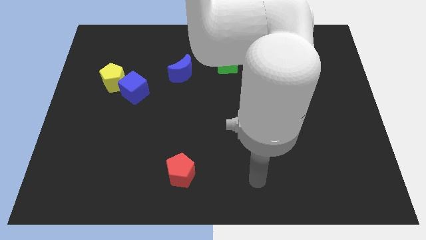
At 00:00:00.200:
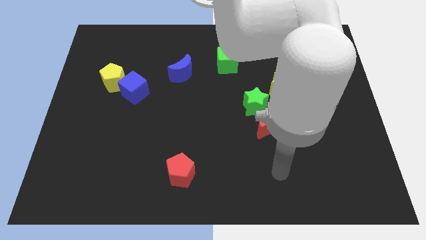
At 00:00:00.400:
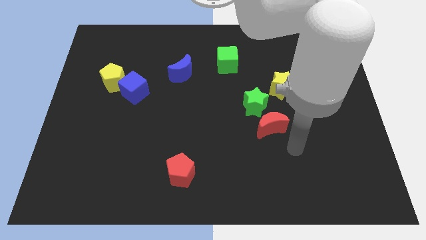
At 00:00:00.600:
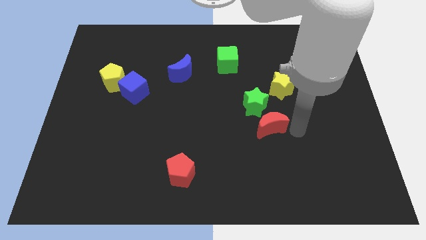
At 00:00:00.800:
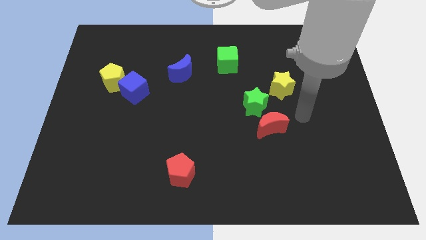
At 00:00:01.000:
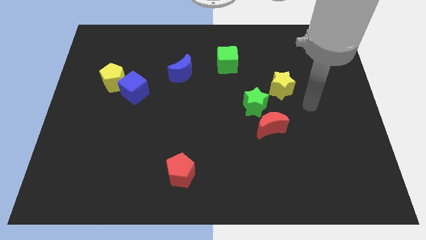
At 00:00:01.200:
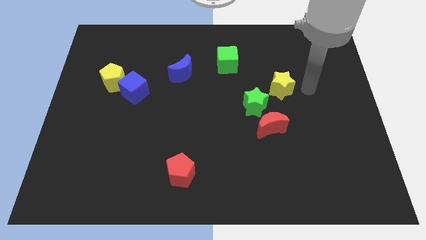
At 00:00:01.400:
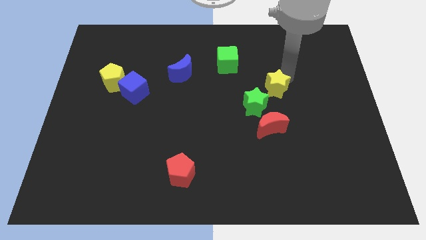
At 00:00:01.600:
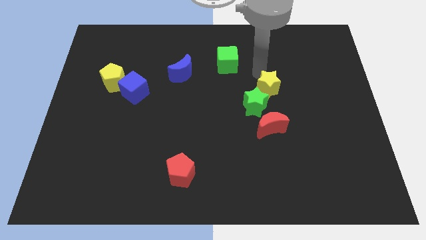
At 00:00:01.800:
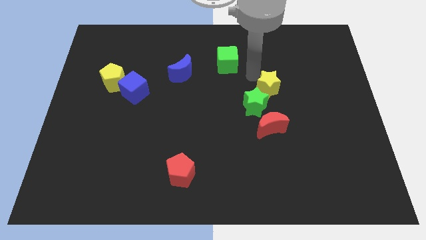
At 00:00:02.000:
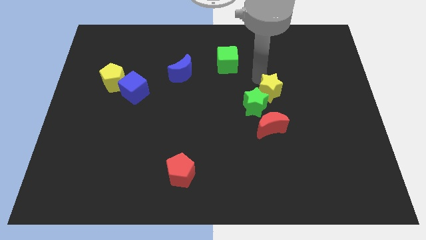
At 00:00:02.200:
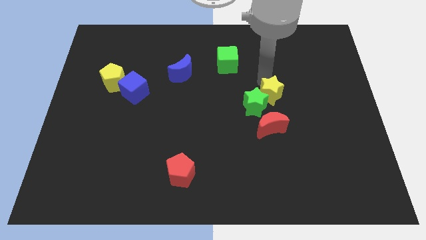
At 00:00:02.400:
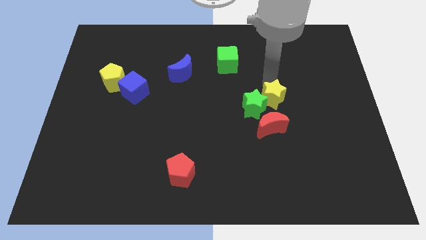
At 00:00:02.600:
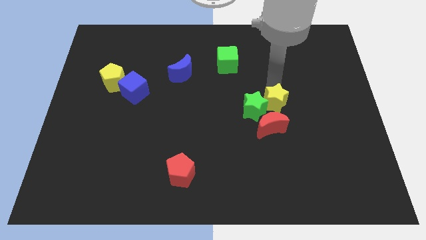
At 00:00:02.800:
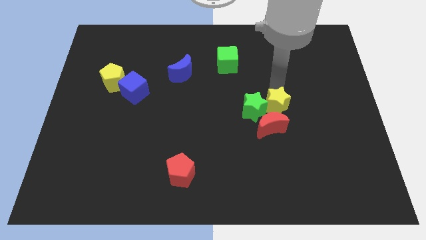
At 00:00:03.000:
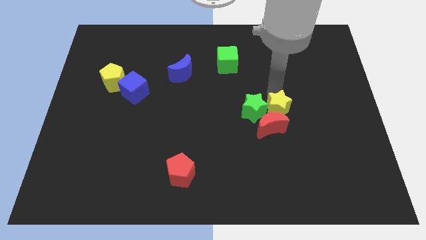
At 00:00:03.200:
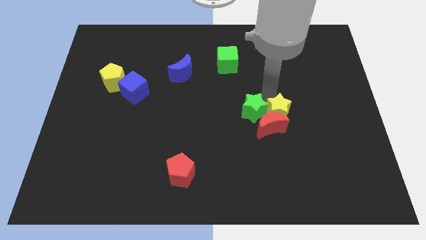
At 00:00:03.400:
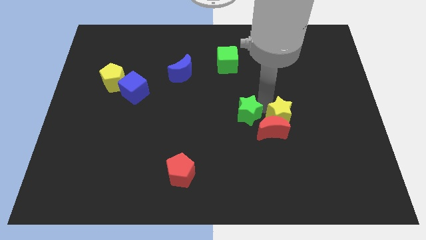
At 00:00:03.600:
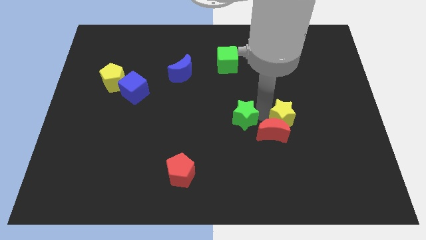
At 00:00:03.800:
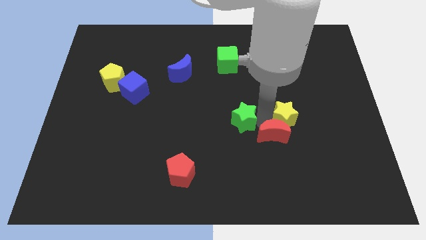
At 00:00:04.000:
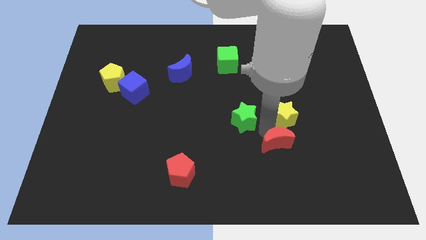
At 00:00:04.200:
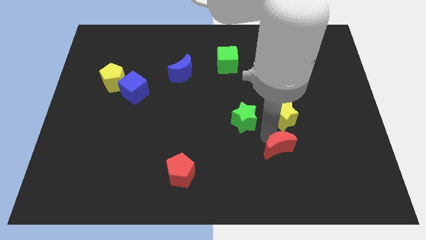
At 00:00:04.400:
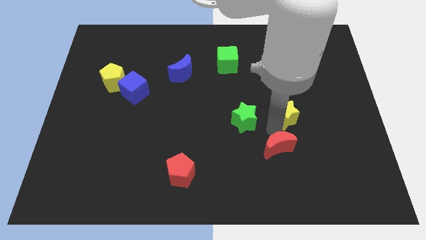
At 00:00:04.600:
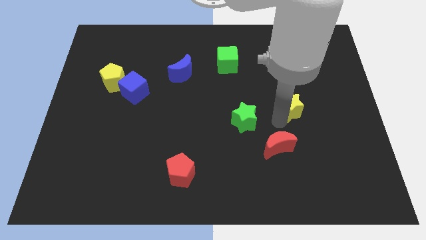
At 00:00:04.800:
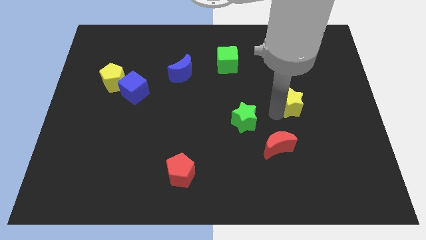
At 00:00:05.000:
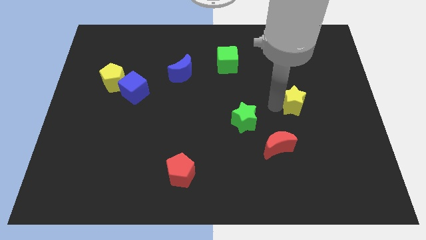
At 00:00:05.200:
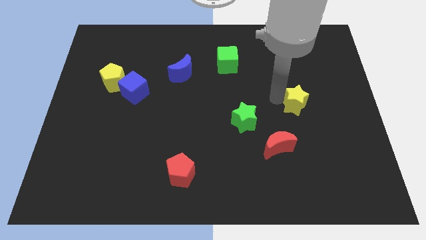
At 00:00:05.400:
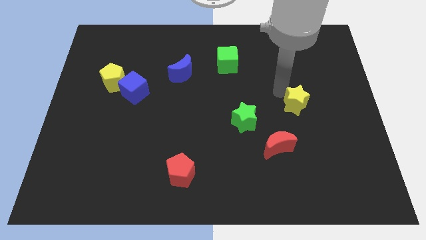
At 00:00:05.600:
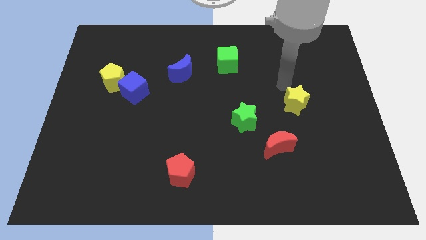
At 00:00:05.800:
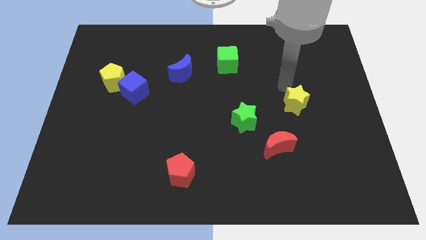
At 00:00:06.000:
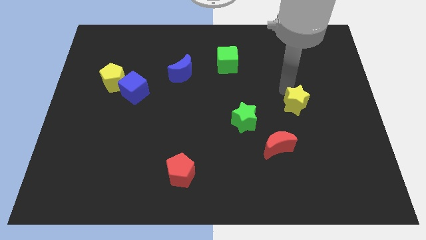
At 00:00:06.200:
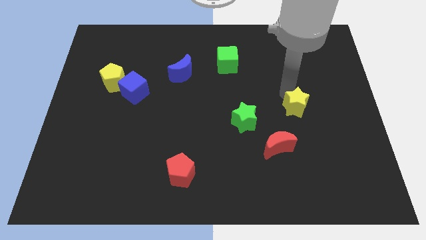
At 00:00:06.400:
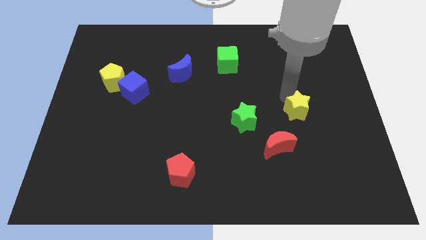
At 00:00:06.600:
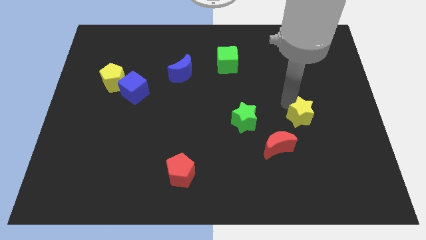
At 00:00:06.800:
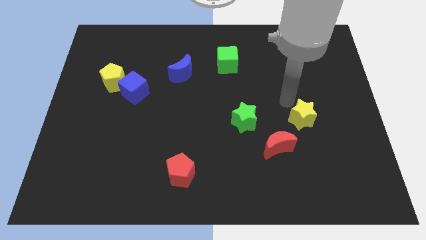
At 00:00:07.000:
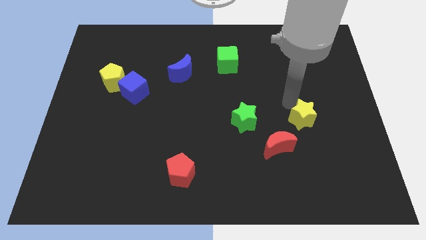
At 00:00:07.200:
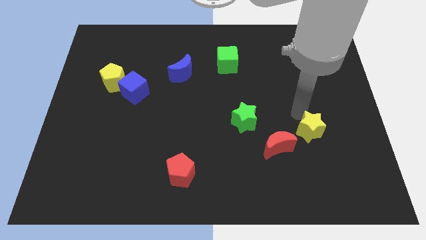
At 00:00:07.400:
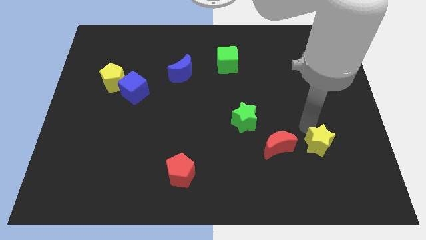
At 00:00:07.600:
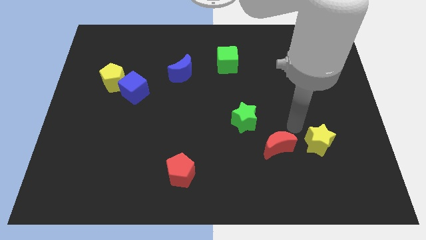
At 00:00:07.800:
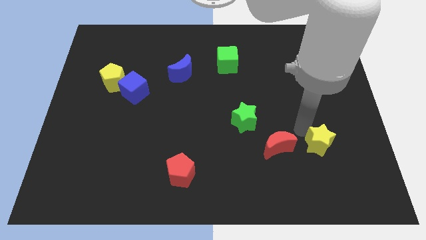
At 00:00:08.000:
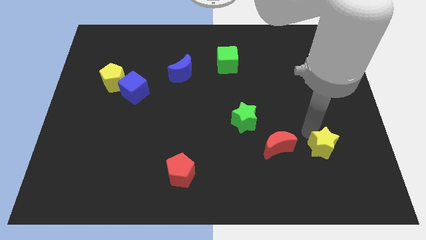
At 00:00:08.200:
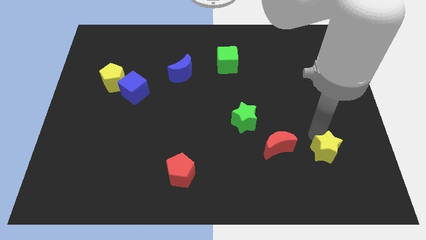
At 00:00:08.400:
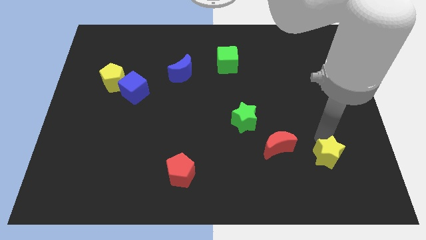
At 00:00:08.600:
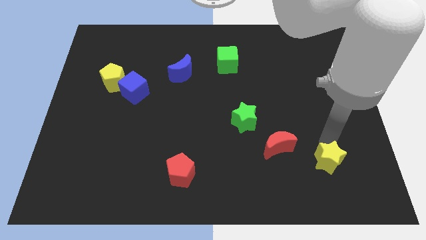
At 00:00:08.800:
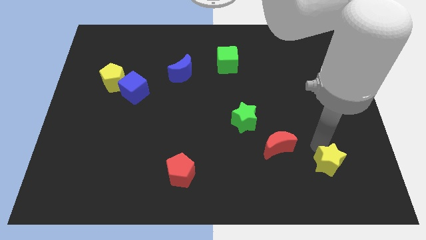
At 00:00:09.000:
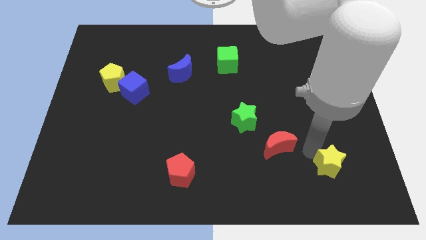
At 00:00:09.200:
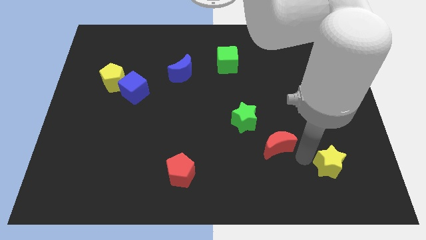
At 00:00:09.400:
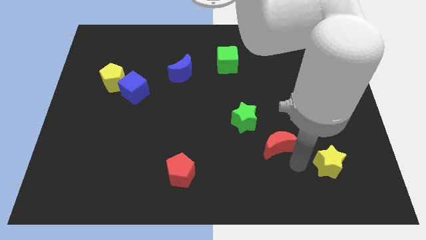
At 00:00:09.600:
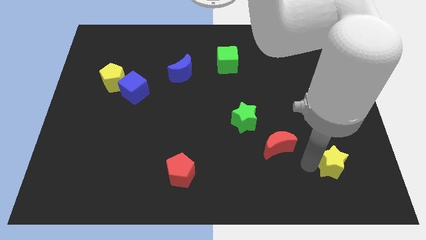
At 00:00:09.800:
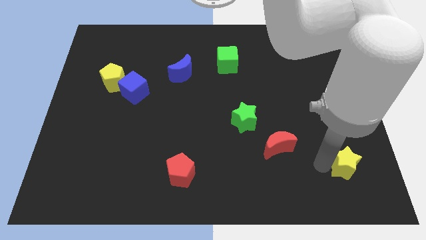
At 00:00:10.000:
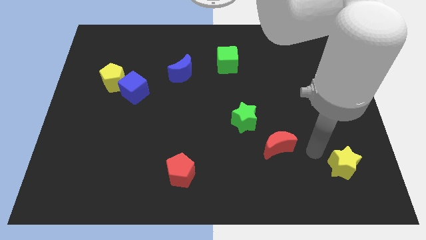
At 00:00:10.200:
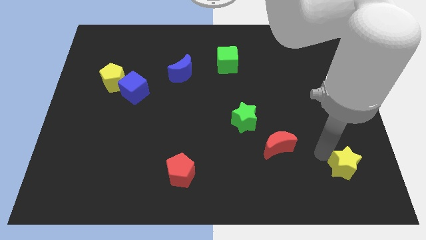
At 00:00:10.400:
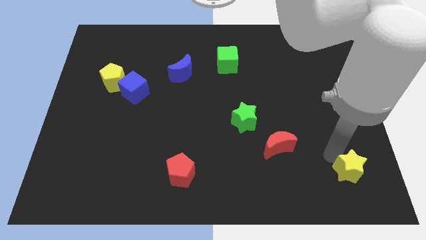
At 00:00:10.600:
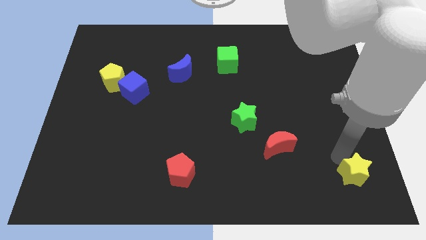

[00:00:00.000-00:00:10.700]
push the yellow star to the bottom right corner

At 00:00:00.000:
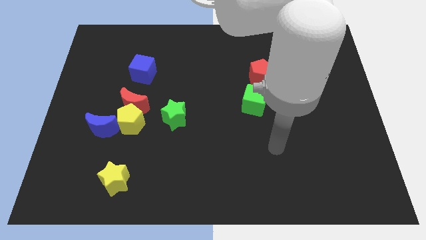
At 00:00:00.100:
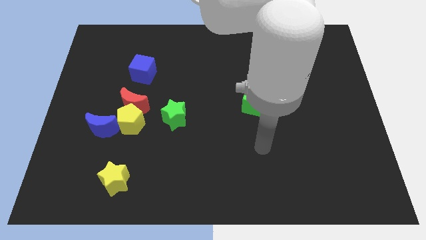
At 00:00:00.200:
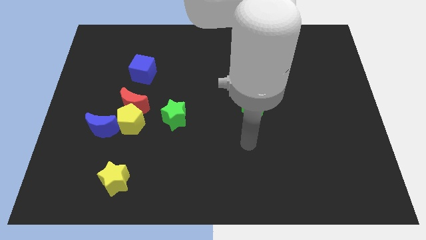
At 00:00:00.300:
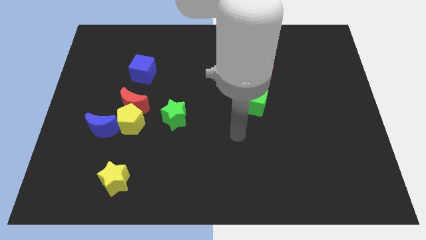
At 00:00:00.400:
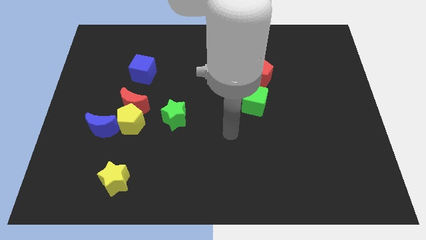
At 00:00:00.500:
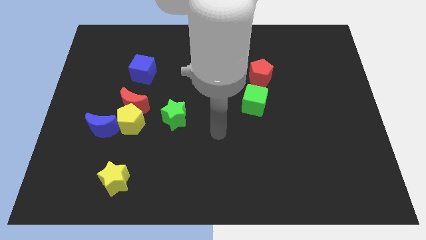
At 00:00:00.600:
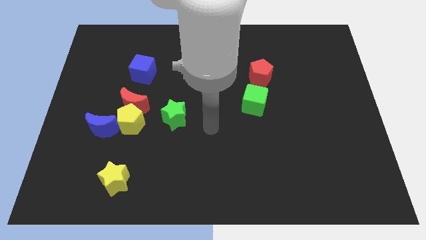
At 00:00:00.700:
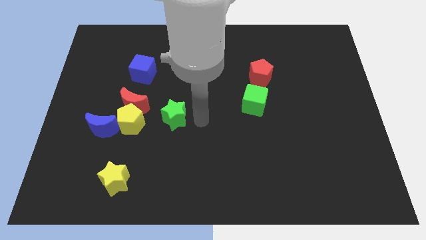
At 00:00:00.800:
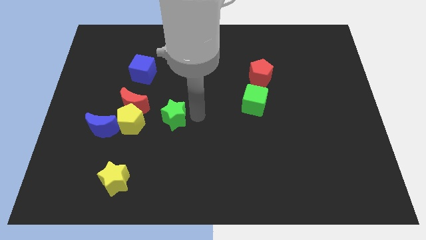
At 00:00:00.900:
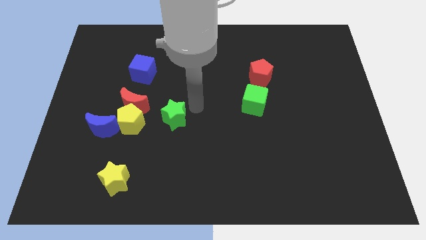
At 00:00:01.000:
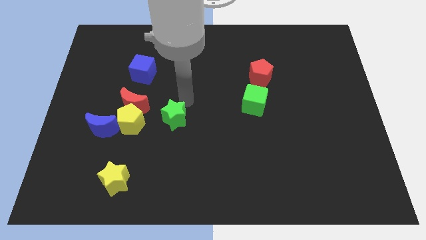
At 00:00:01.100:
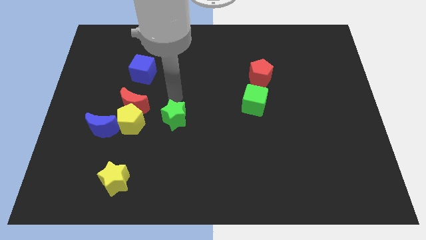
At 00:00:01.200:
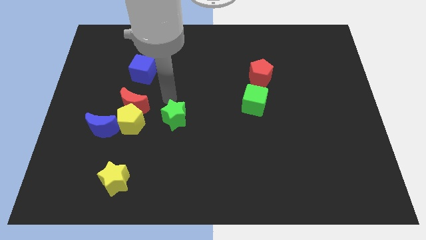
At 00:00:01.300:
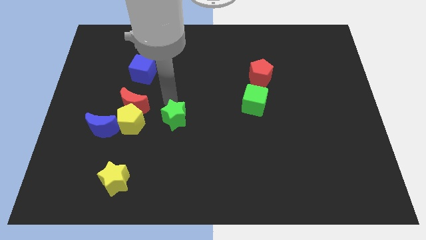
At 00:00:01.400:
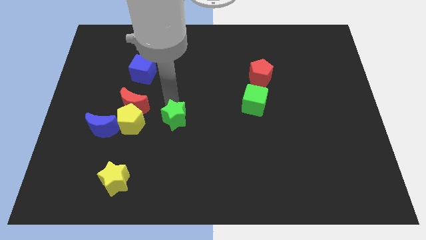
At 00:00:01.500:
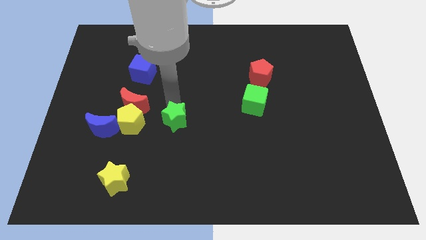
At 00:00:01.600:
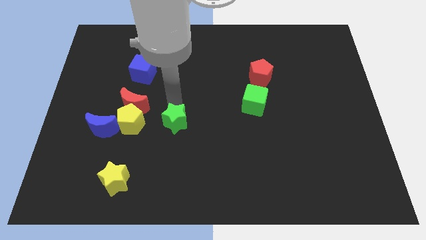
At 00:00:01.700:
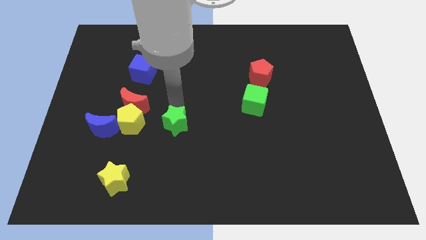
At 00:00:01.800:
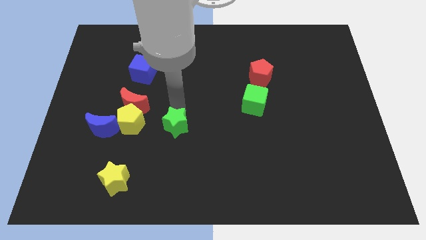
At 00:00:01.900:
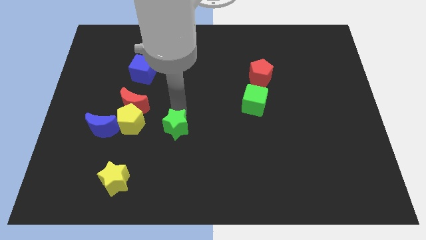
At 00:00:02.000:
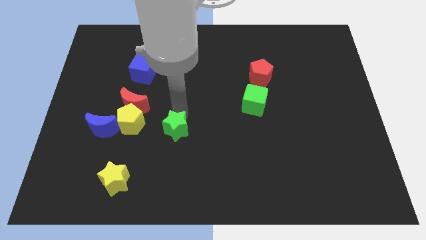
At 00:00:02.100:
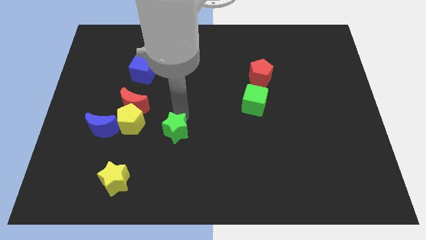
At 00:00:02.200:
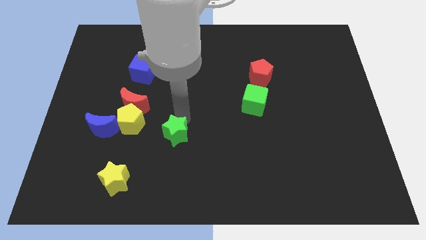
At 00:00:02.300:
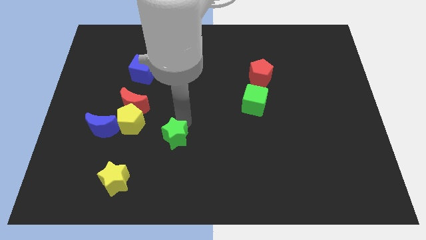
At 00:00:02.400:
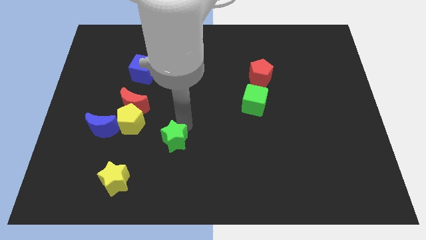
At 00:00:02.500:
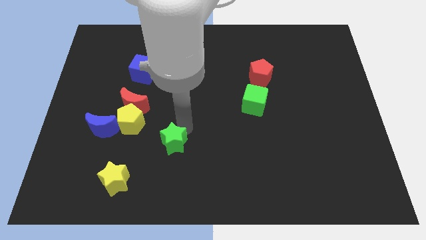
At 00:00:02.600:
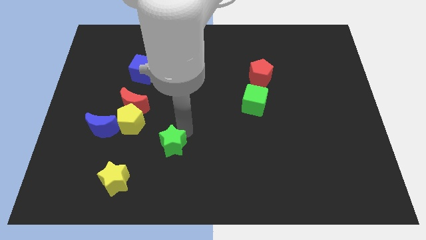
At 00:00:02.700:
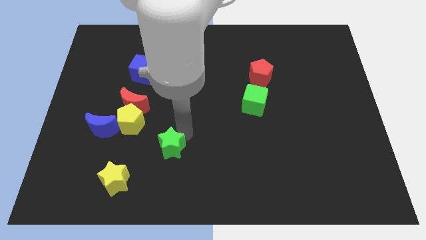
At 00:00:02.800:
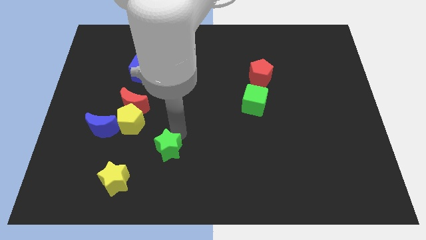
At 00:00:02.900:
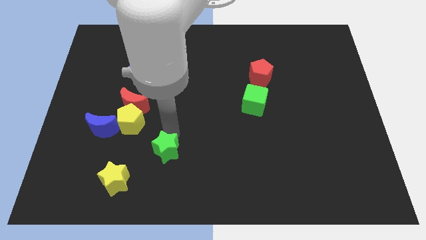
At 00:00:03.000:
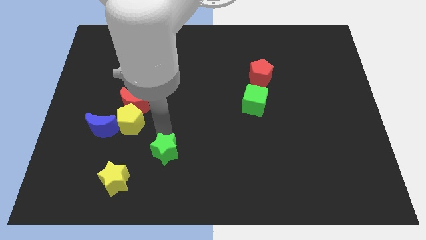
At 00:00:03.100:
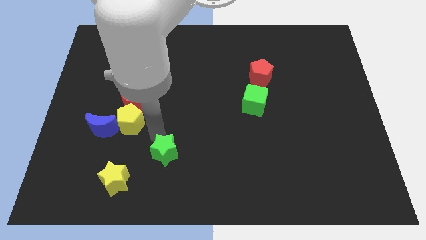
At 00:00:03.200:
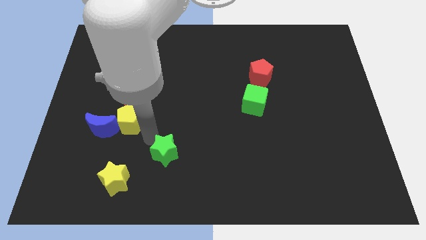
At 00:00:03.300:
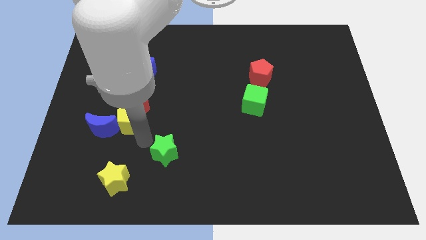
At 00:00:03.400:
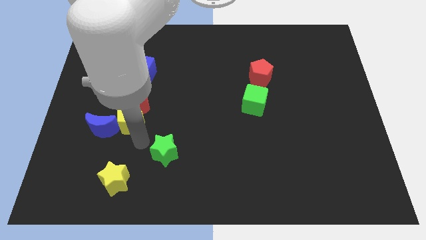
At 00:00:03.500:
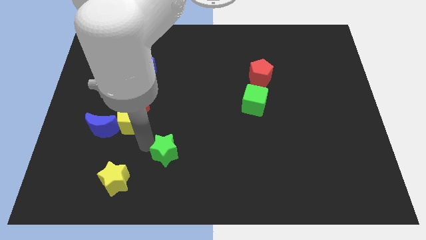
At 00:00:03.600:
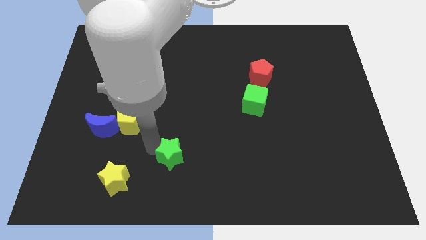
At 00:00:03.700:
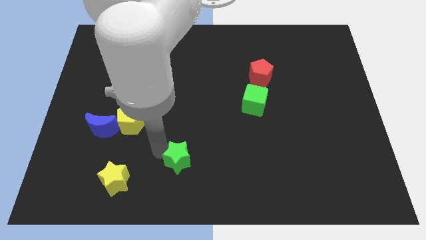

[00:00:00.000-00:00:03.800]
slide the green star to the bottom
